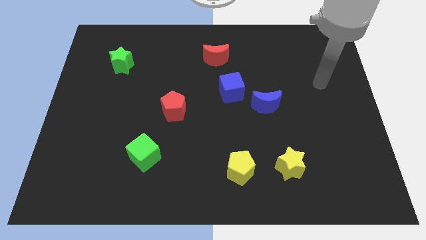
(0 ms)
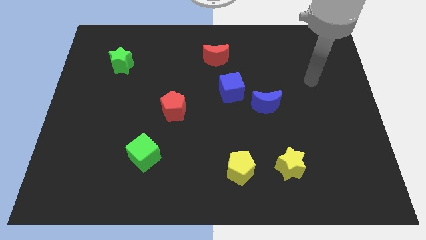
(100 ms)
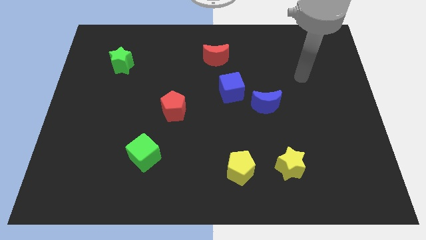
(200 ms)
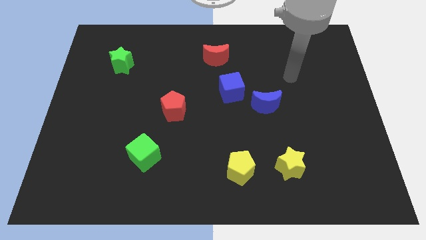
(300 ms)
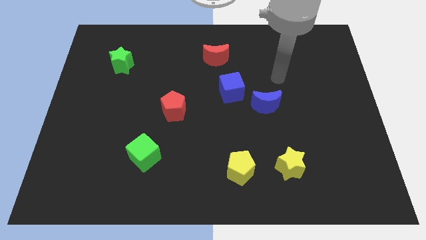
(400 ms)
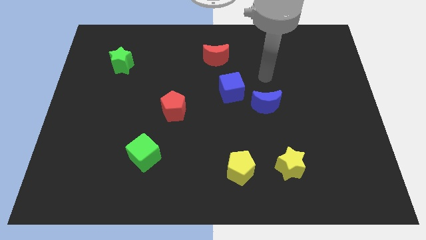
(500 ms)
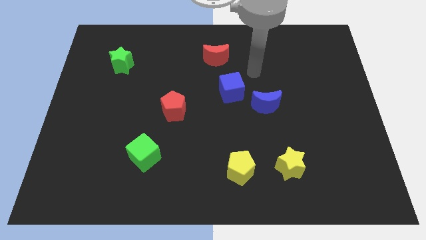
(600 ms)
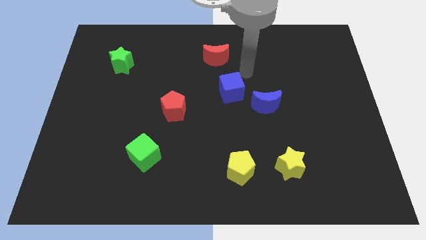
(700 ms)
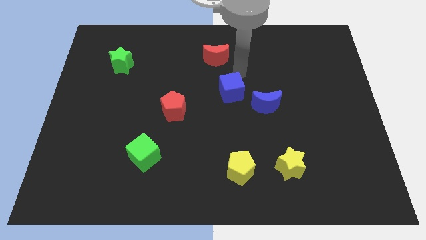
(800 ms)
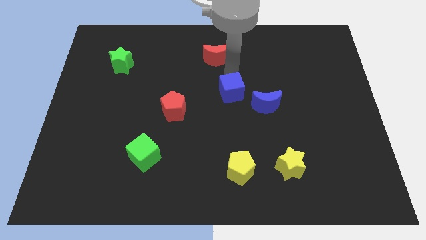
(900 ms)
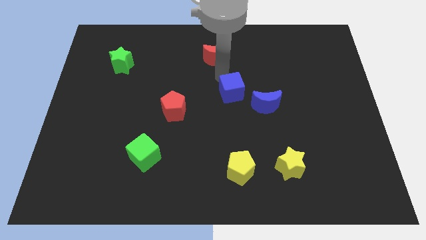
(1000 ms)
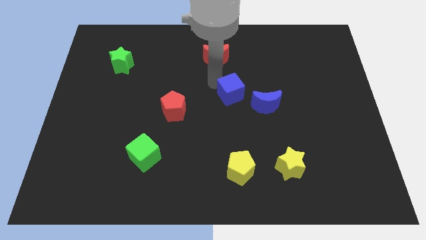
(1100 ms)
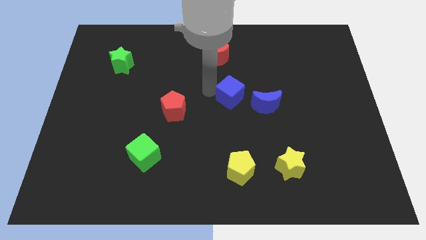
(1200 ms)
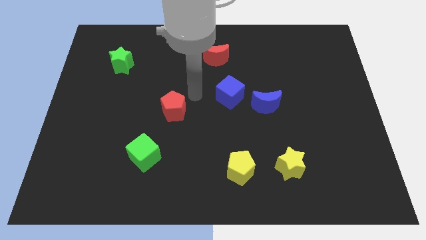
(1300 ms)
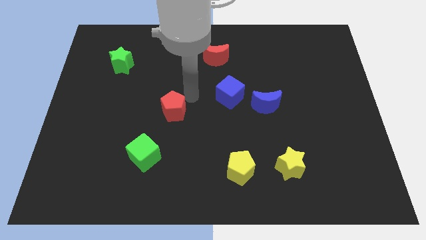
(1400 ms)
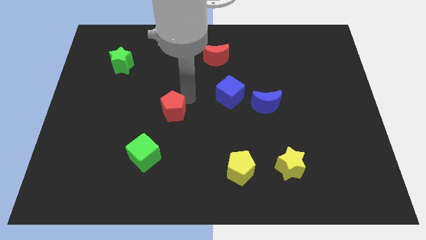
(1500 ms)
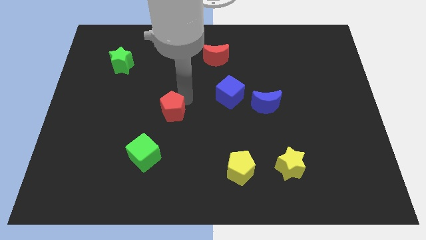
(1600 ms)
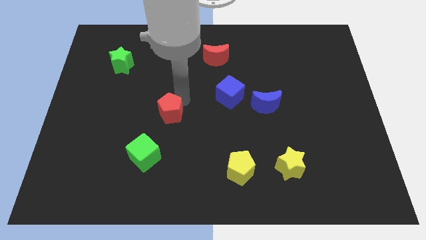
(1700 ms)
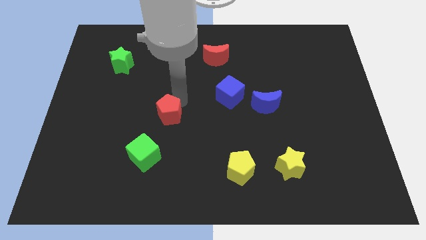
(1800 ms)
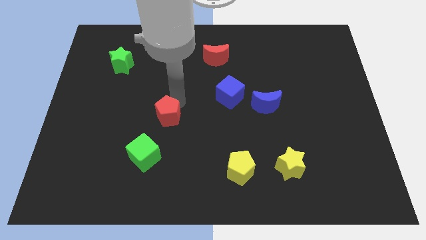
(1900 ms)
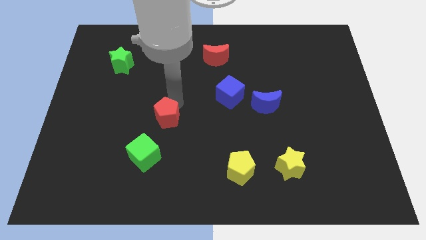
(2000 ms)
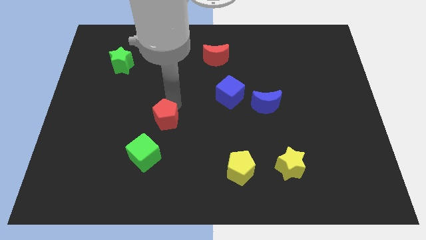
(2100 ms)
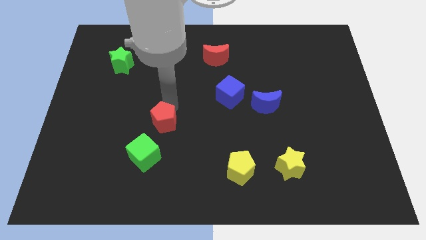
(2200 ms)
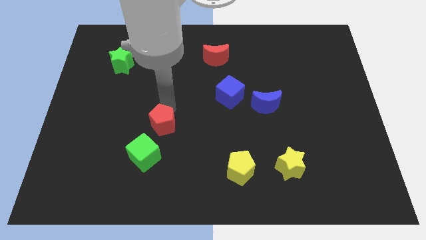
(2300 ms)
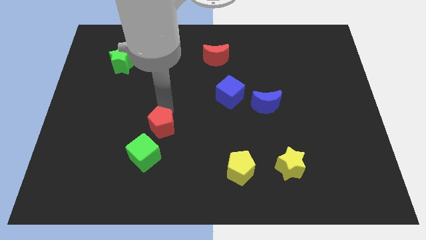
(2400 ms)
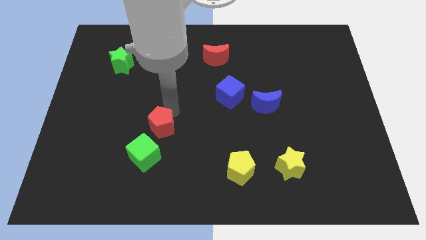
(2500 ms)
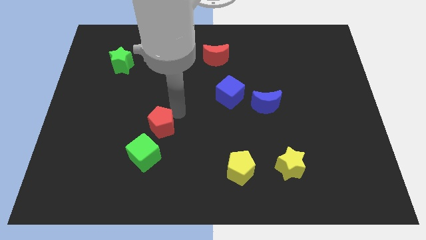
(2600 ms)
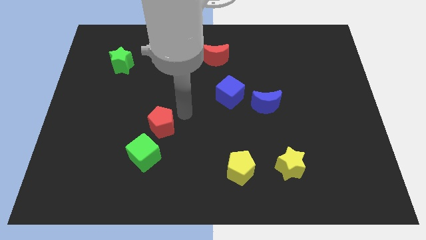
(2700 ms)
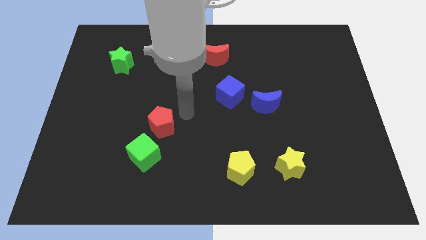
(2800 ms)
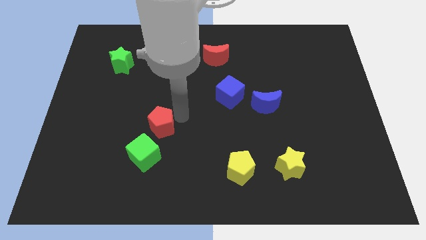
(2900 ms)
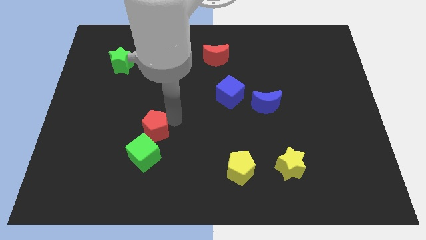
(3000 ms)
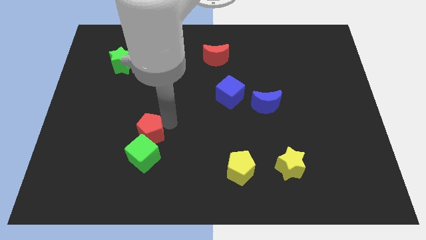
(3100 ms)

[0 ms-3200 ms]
slightly push the red pentagon down and to the left diagonally

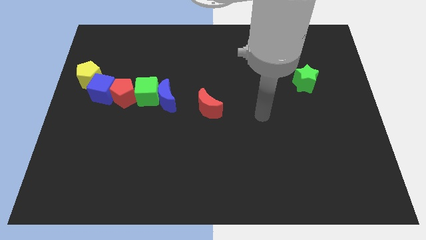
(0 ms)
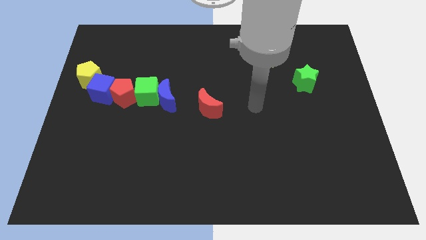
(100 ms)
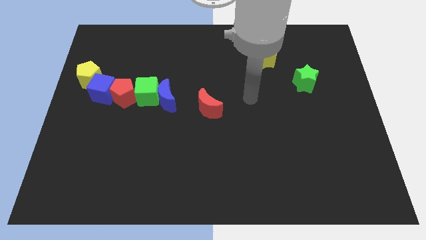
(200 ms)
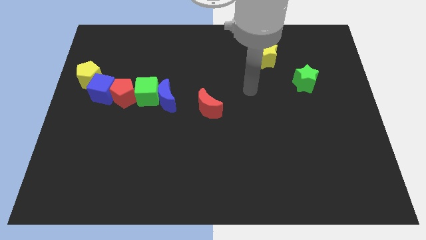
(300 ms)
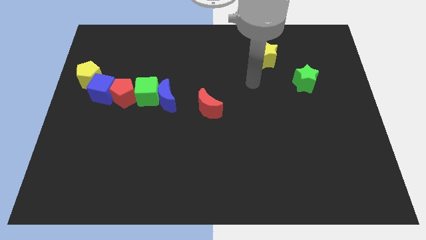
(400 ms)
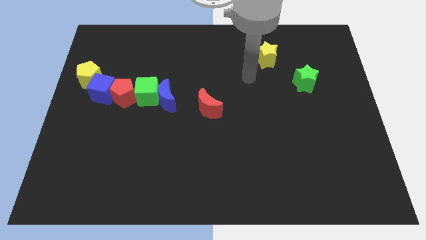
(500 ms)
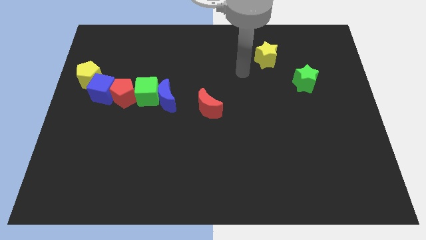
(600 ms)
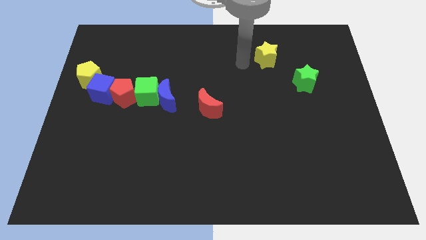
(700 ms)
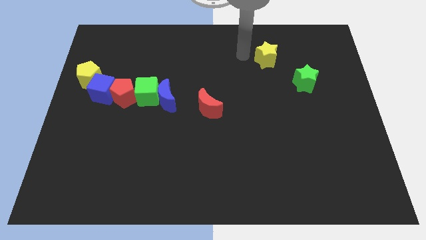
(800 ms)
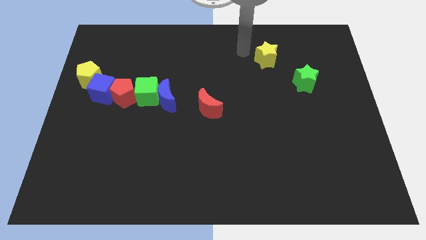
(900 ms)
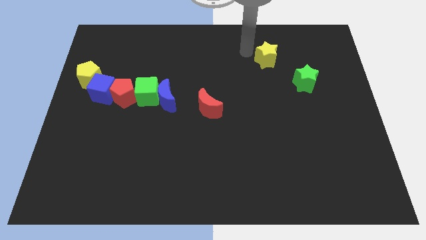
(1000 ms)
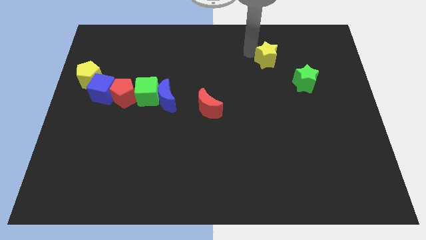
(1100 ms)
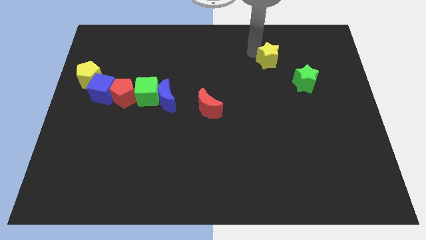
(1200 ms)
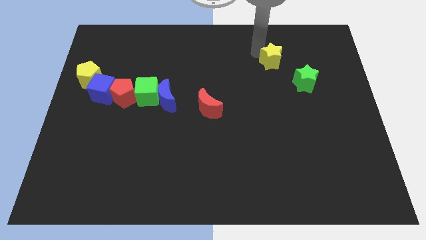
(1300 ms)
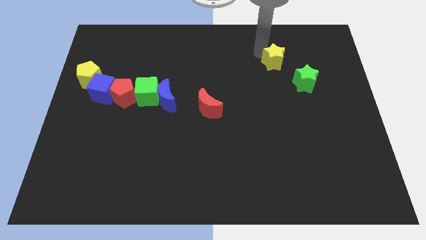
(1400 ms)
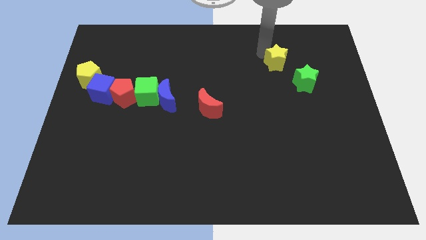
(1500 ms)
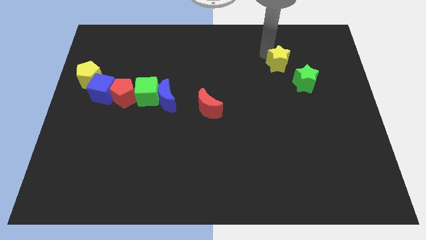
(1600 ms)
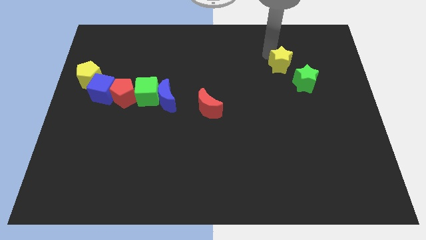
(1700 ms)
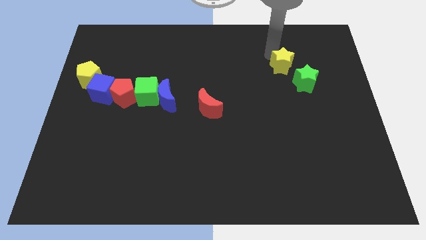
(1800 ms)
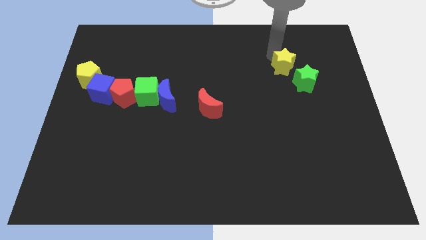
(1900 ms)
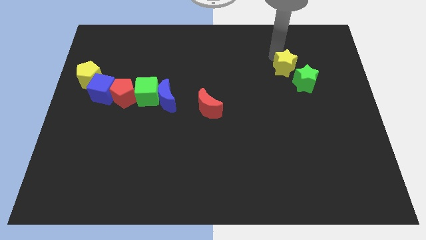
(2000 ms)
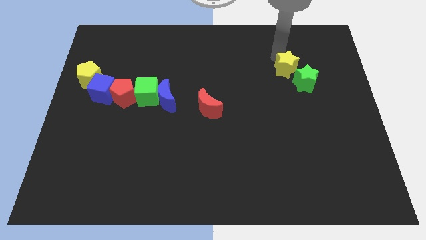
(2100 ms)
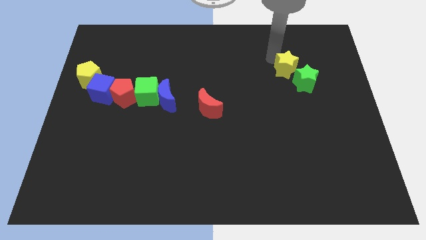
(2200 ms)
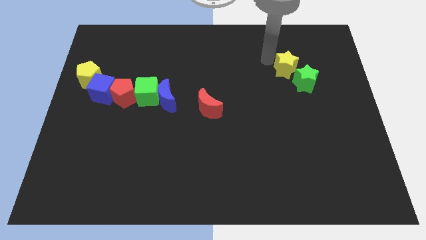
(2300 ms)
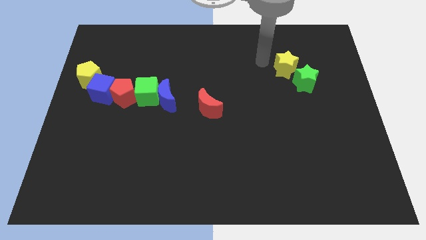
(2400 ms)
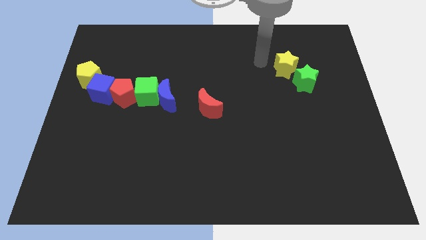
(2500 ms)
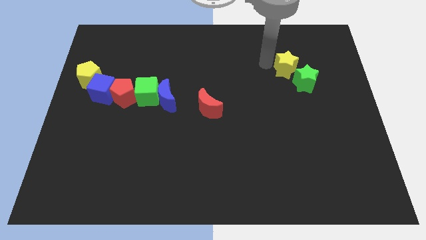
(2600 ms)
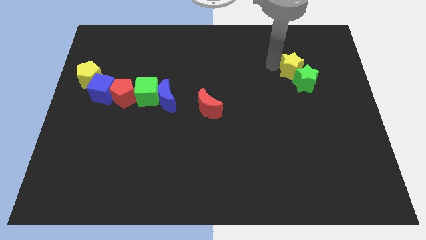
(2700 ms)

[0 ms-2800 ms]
slightly move the yellow star down and right diagonally

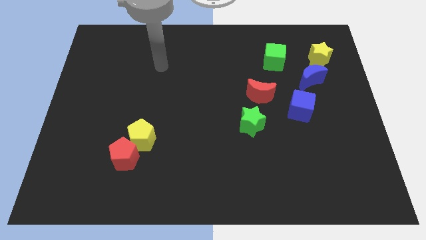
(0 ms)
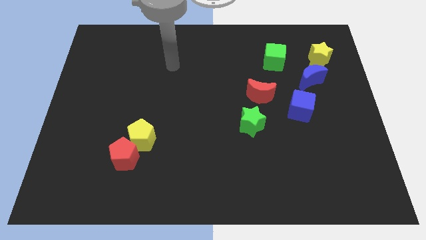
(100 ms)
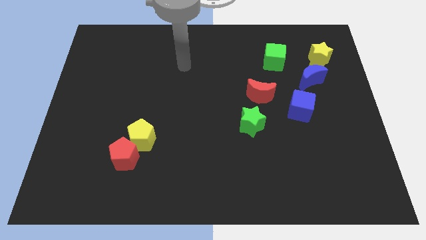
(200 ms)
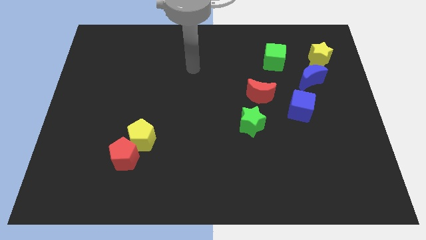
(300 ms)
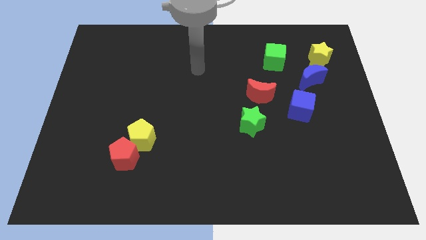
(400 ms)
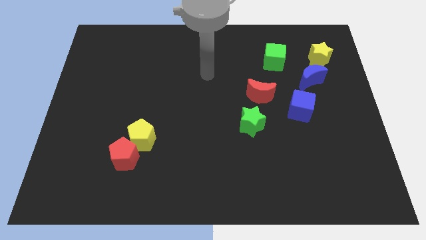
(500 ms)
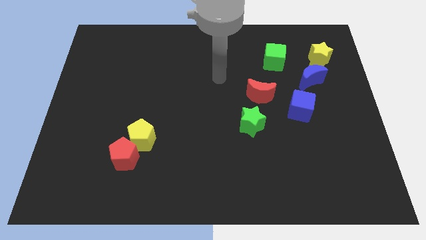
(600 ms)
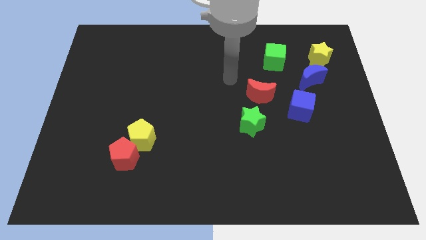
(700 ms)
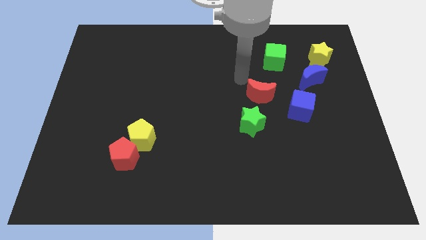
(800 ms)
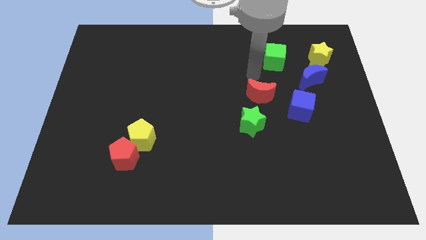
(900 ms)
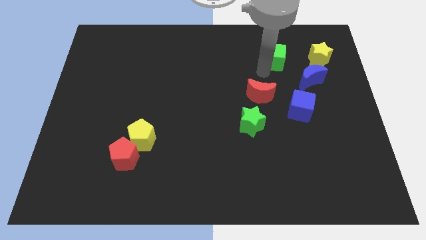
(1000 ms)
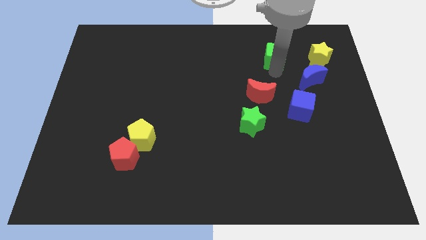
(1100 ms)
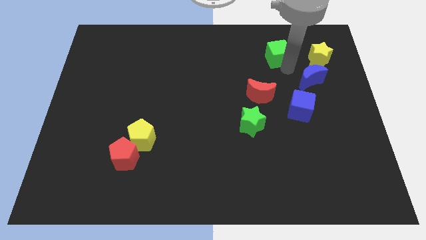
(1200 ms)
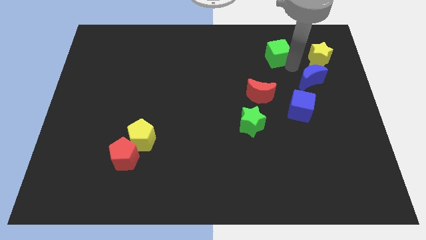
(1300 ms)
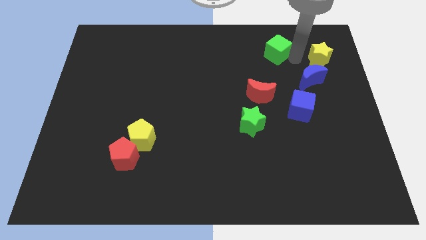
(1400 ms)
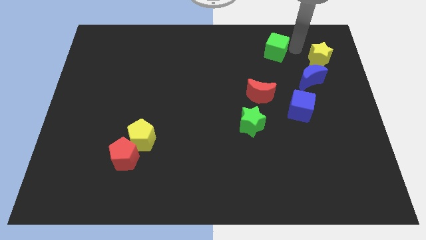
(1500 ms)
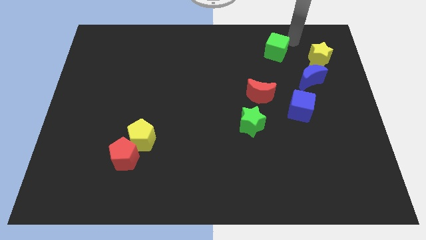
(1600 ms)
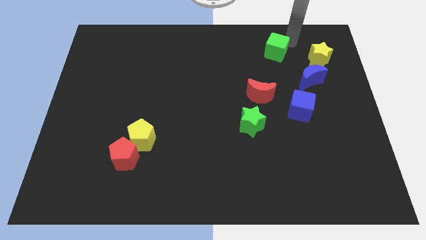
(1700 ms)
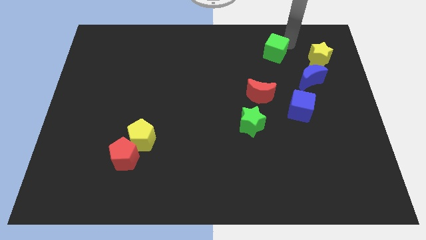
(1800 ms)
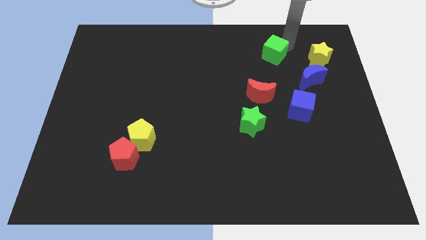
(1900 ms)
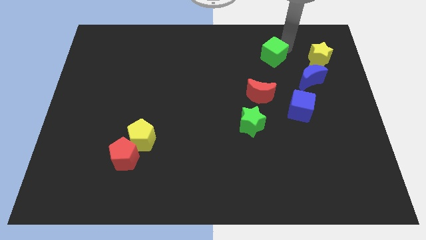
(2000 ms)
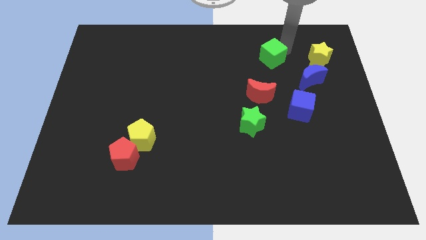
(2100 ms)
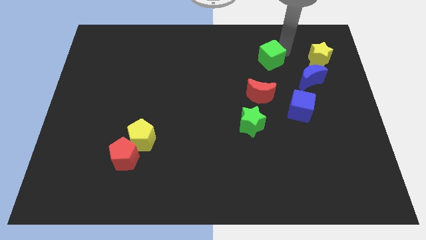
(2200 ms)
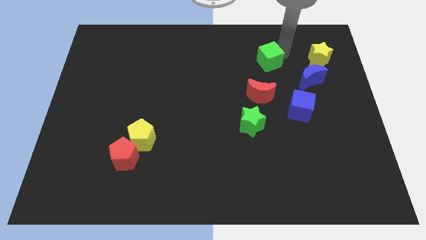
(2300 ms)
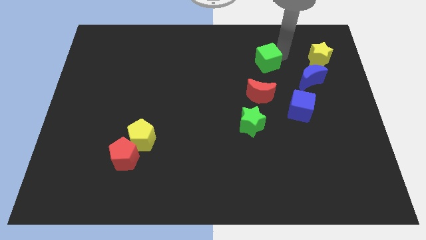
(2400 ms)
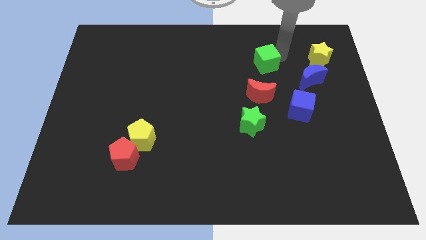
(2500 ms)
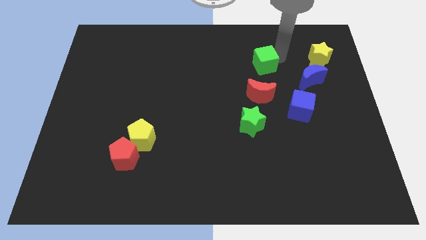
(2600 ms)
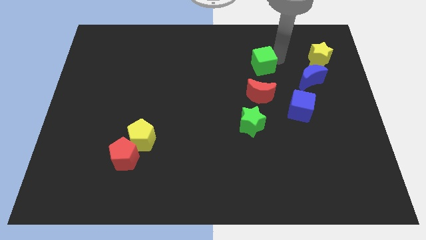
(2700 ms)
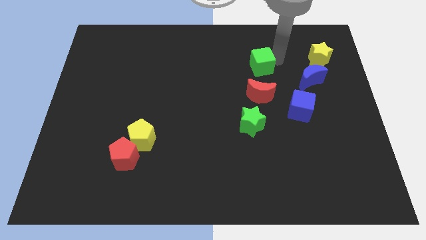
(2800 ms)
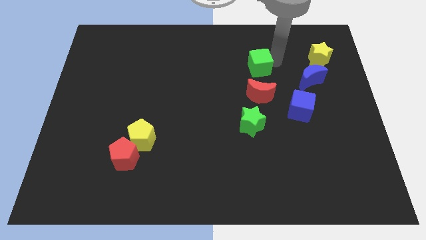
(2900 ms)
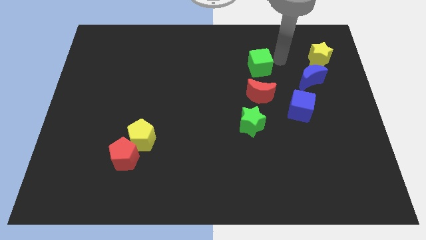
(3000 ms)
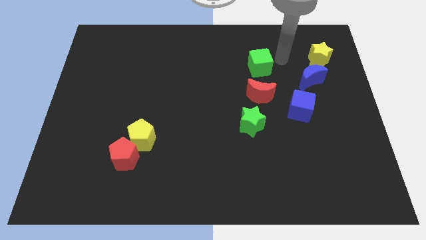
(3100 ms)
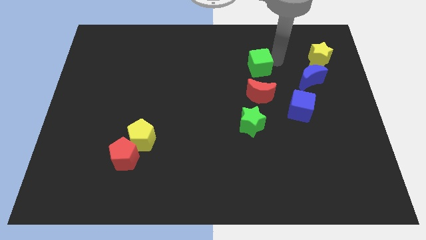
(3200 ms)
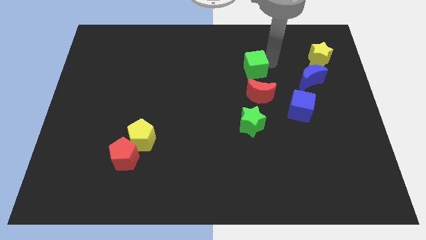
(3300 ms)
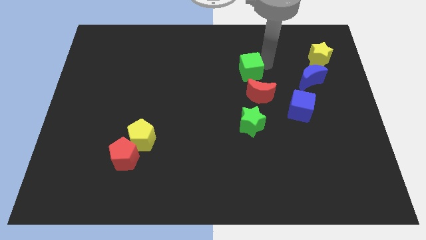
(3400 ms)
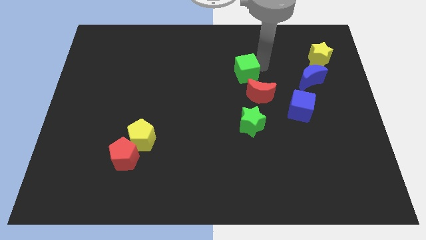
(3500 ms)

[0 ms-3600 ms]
move the green cube to the left slightly
